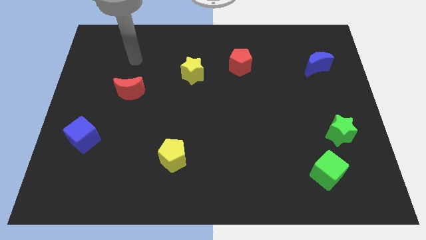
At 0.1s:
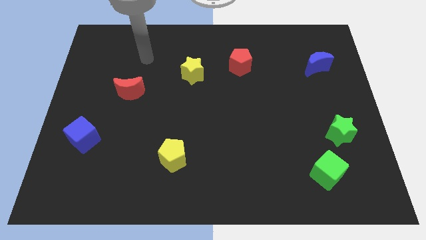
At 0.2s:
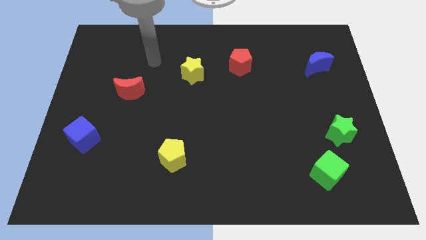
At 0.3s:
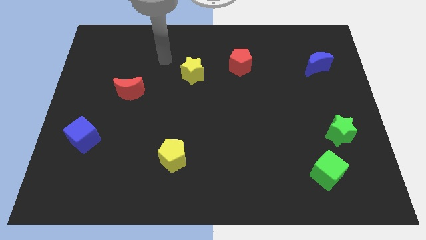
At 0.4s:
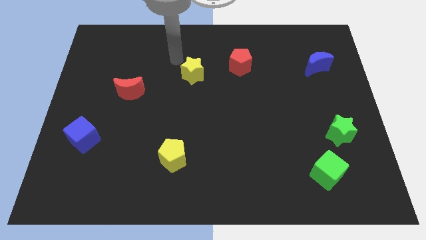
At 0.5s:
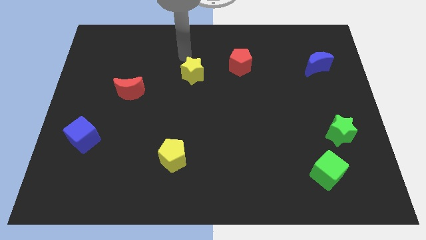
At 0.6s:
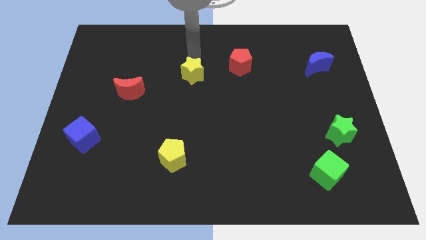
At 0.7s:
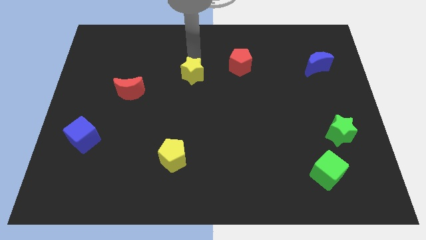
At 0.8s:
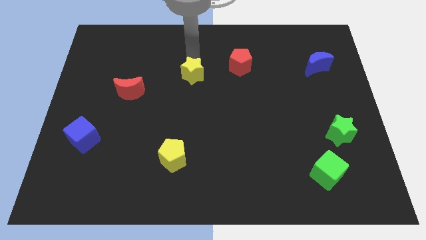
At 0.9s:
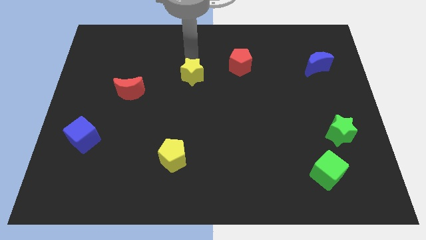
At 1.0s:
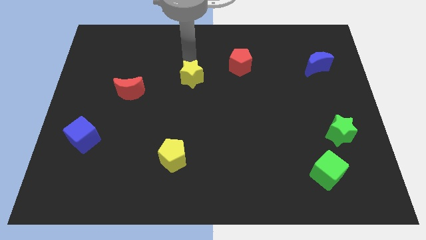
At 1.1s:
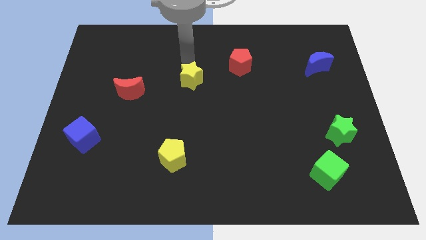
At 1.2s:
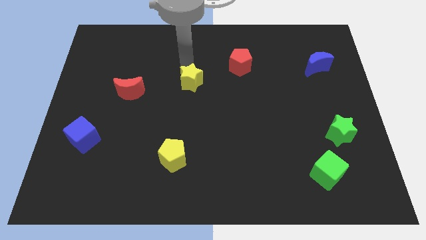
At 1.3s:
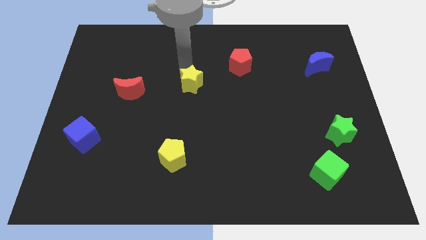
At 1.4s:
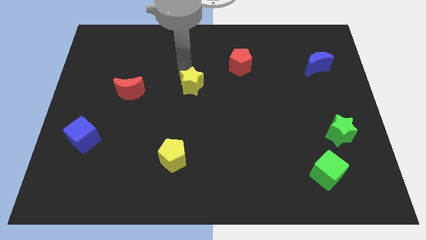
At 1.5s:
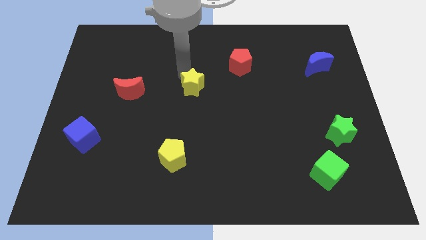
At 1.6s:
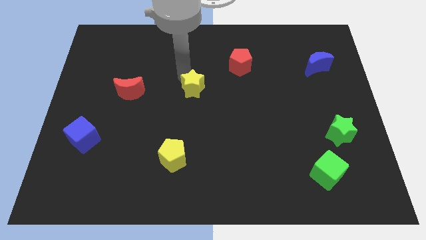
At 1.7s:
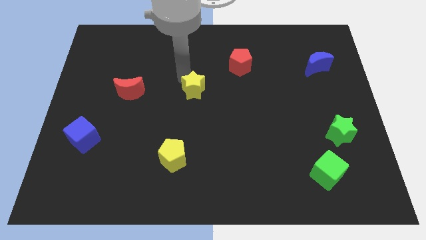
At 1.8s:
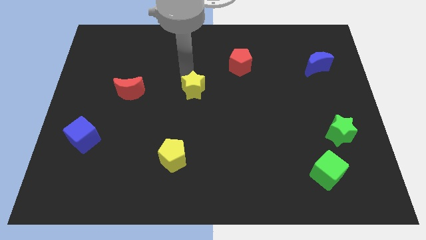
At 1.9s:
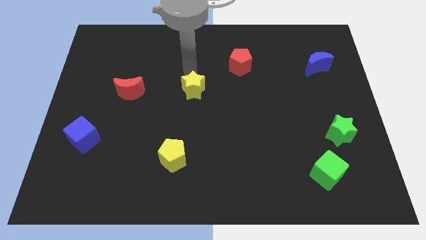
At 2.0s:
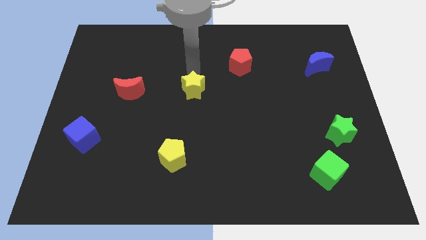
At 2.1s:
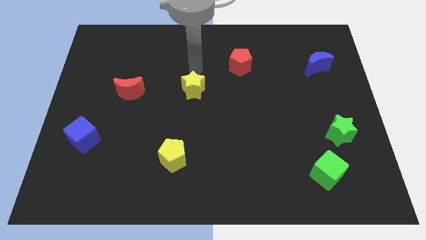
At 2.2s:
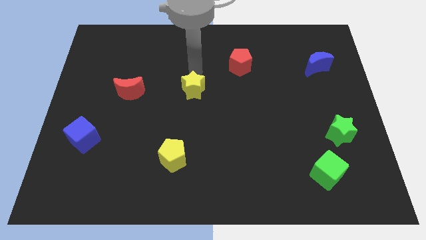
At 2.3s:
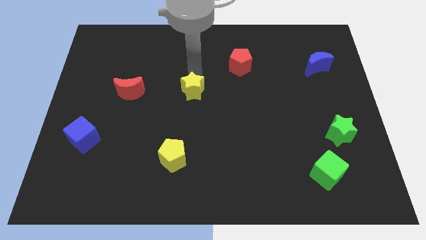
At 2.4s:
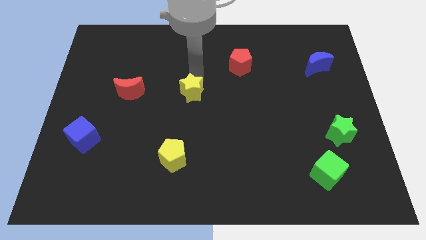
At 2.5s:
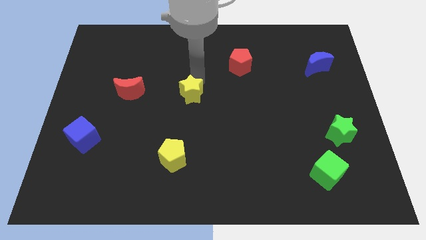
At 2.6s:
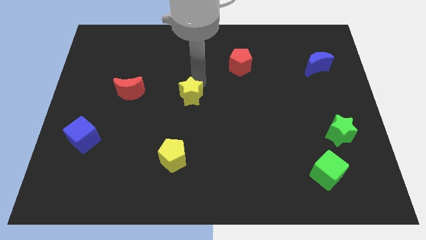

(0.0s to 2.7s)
move the yellow star downwards slightly

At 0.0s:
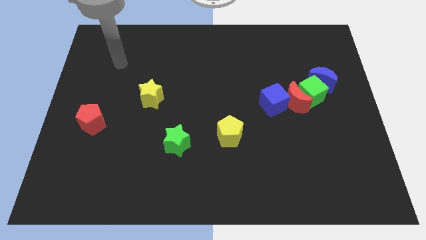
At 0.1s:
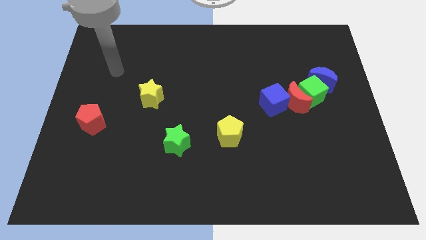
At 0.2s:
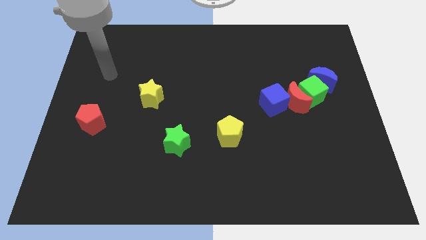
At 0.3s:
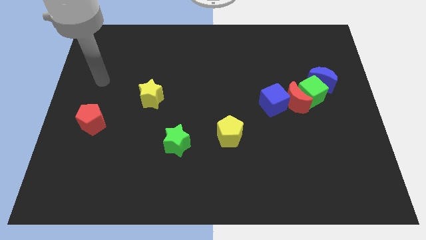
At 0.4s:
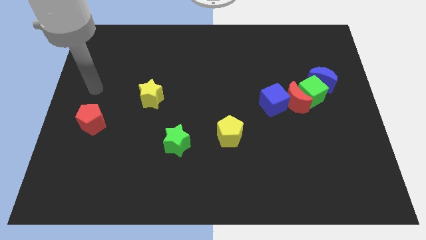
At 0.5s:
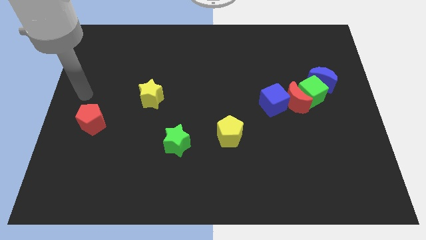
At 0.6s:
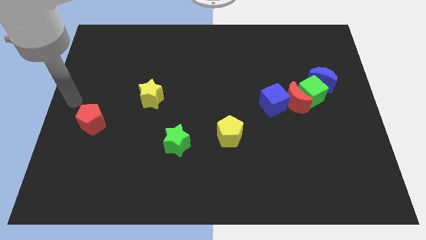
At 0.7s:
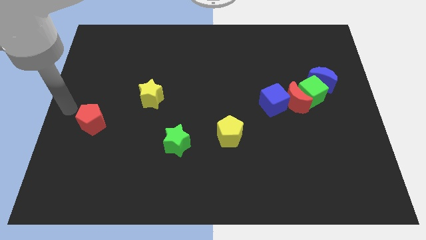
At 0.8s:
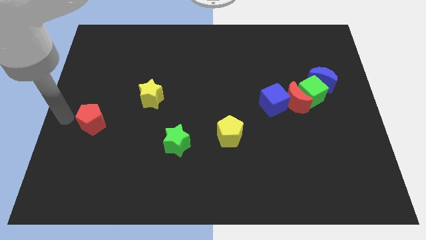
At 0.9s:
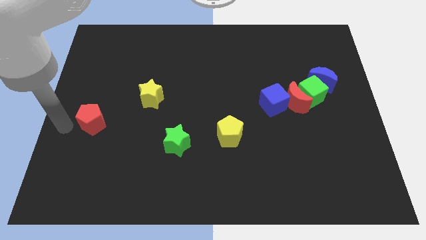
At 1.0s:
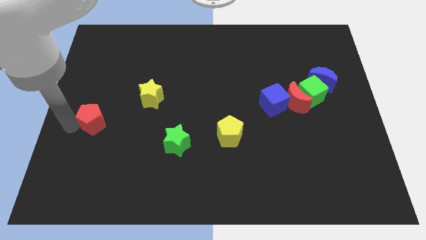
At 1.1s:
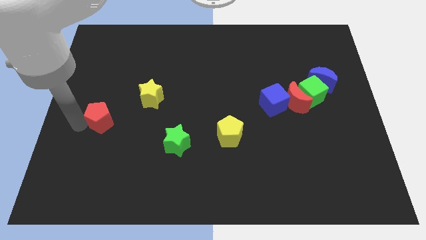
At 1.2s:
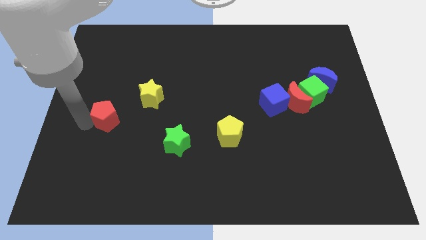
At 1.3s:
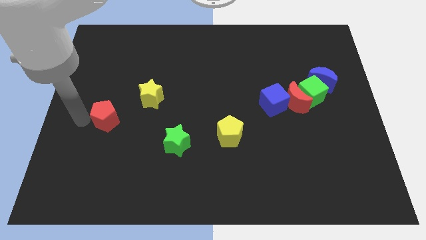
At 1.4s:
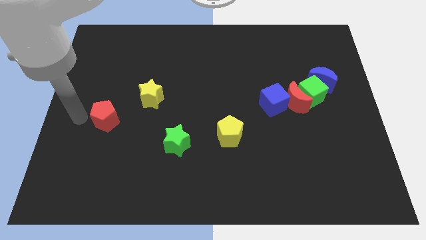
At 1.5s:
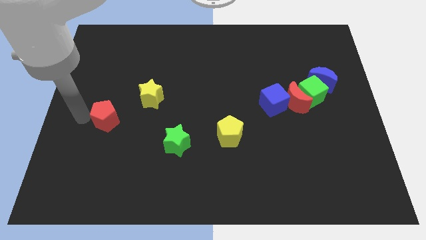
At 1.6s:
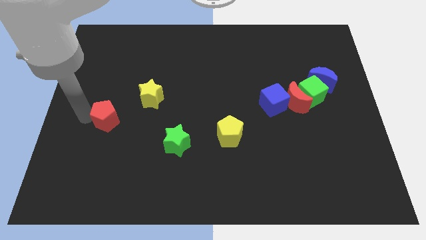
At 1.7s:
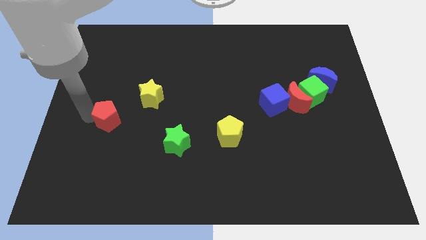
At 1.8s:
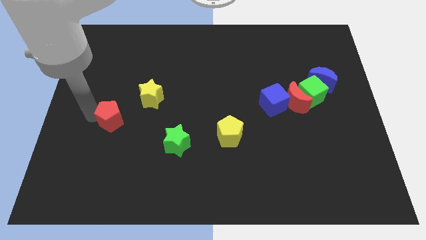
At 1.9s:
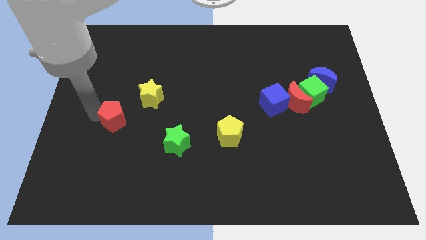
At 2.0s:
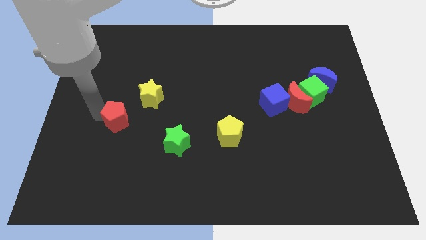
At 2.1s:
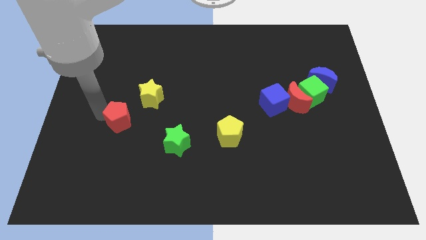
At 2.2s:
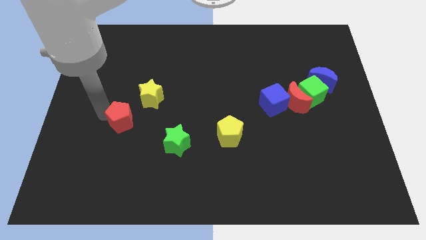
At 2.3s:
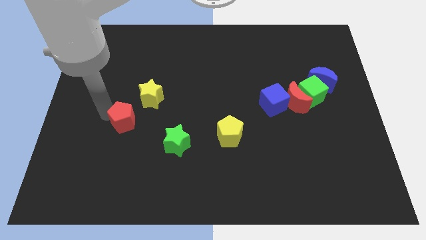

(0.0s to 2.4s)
move the red pentagon a bit right

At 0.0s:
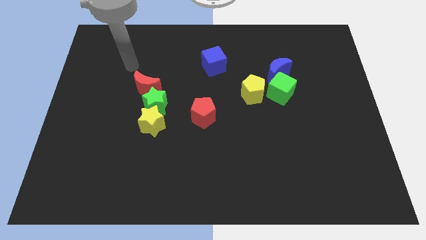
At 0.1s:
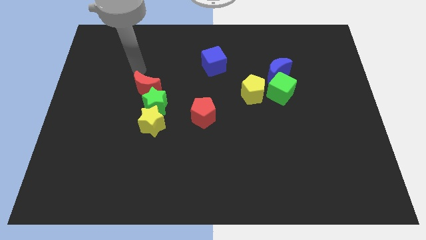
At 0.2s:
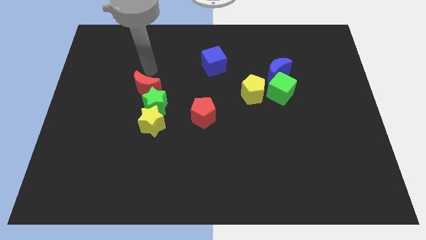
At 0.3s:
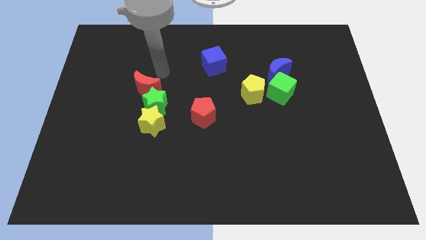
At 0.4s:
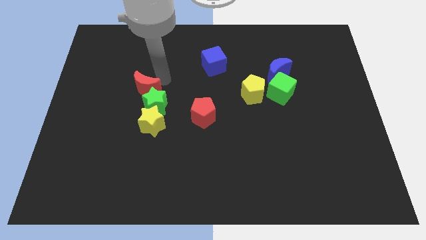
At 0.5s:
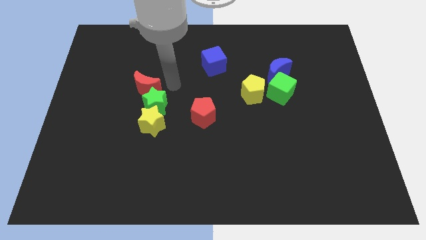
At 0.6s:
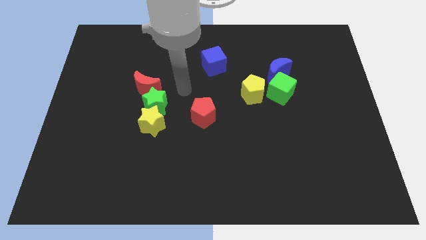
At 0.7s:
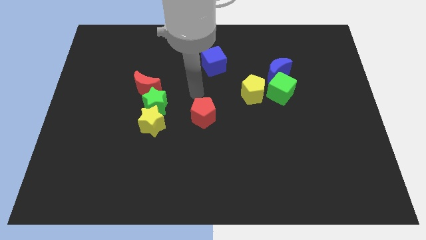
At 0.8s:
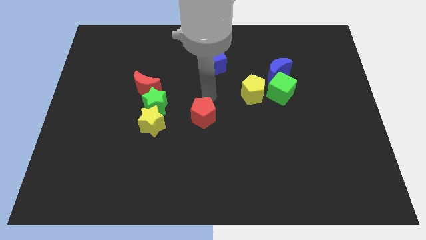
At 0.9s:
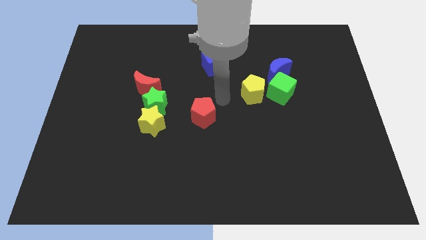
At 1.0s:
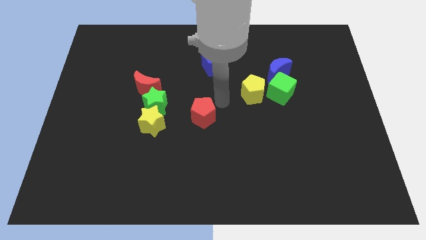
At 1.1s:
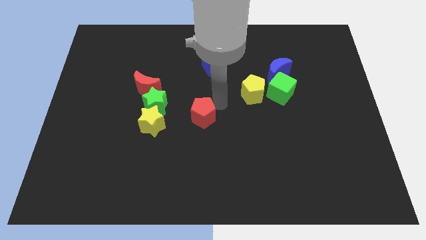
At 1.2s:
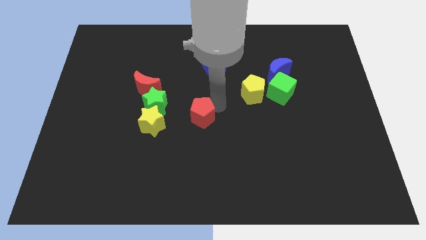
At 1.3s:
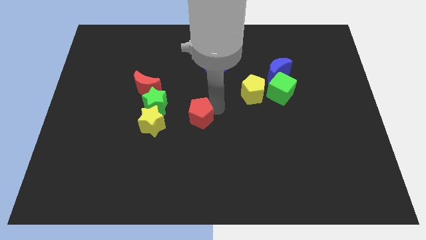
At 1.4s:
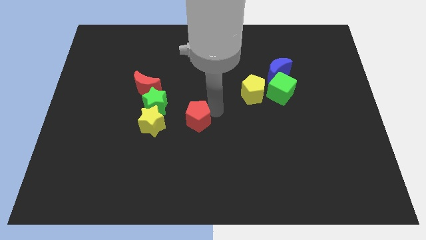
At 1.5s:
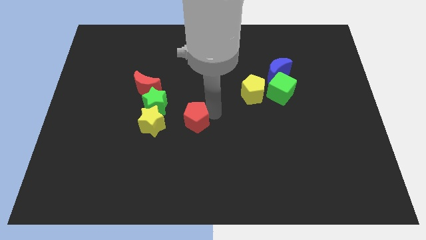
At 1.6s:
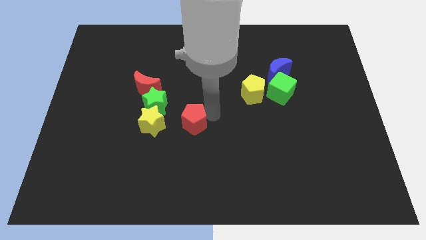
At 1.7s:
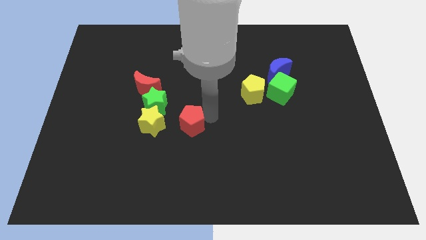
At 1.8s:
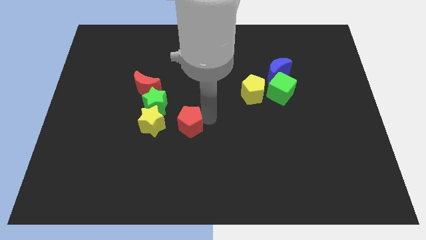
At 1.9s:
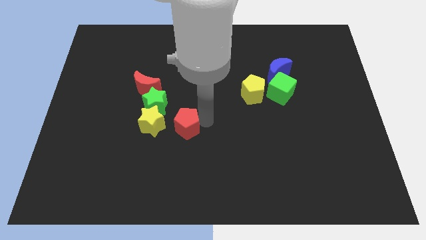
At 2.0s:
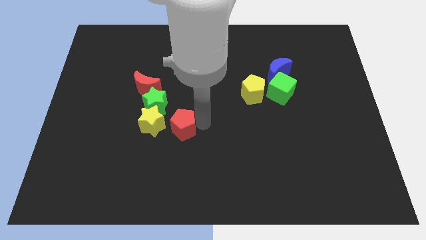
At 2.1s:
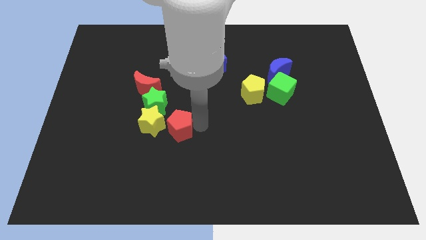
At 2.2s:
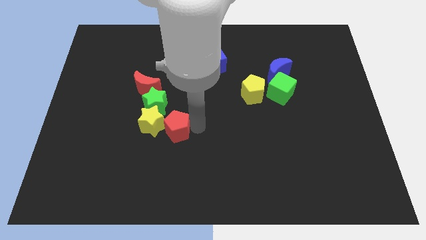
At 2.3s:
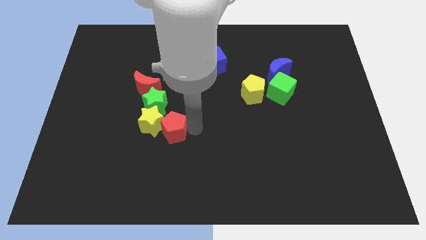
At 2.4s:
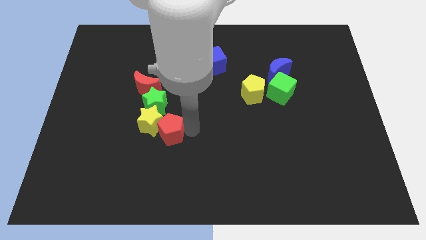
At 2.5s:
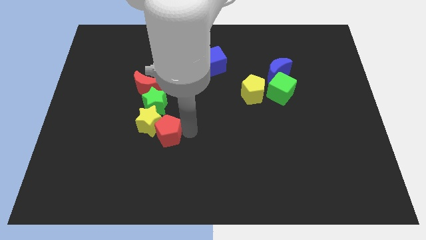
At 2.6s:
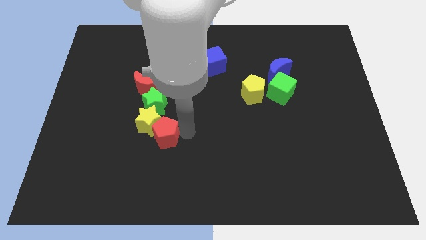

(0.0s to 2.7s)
push the red pentagon slightly to the left

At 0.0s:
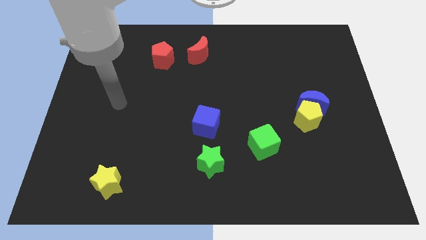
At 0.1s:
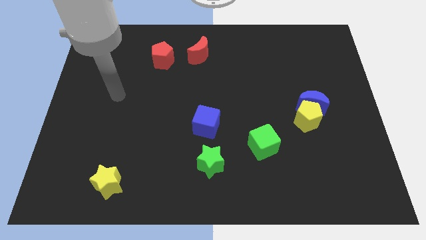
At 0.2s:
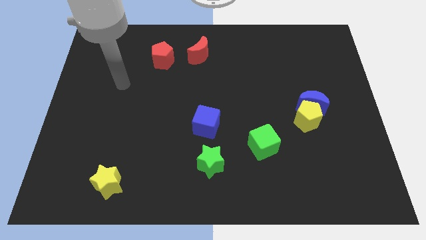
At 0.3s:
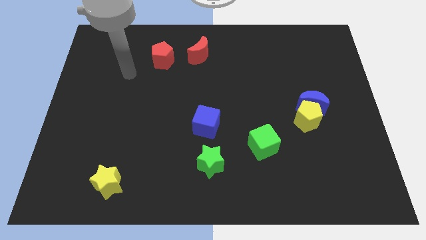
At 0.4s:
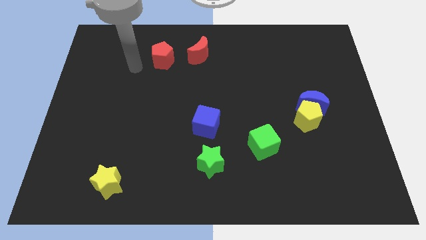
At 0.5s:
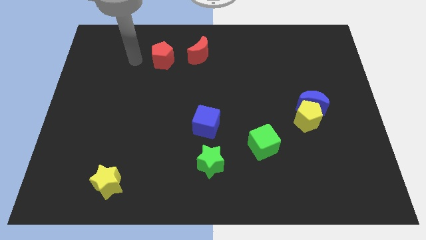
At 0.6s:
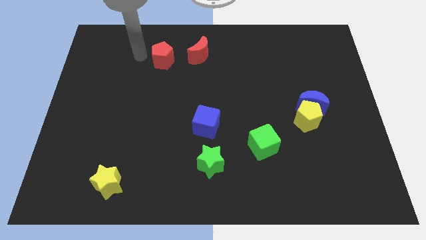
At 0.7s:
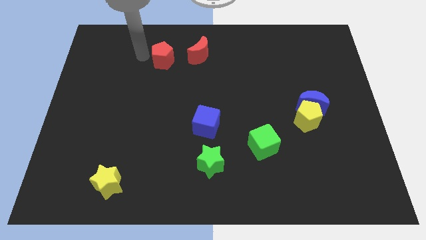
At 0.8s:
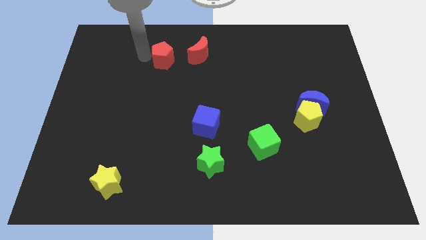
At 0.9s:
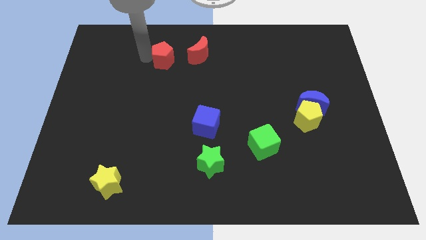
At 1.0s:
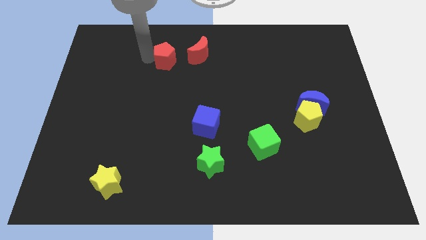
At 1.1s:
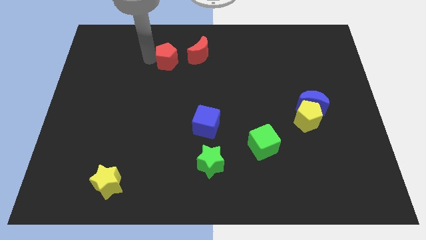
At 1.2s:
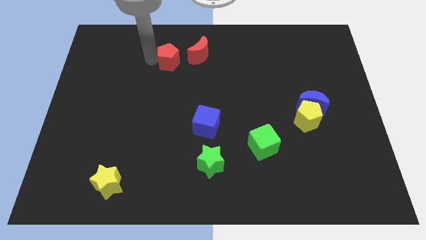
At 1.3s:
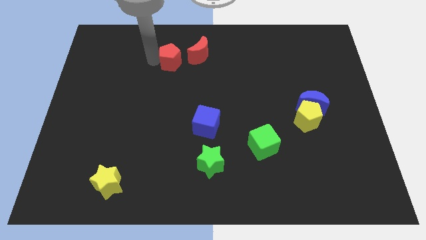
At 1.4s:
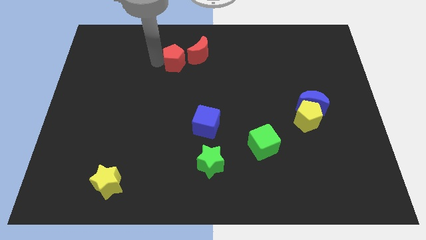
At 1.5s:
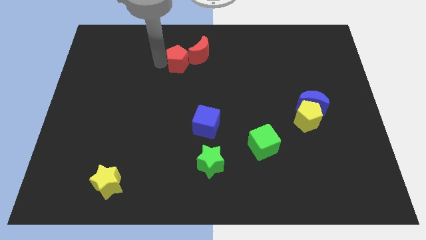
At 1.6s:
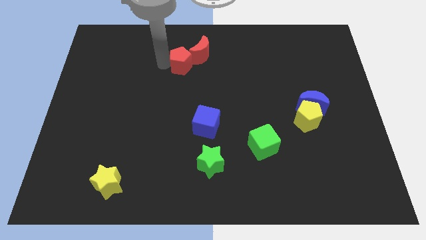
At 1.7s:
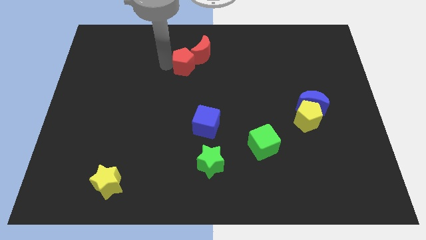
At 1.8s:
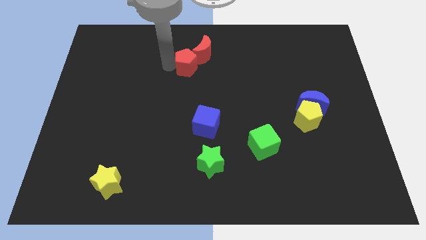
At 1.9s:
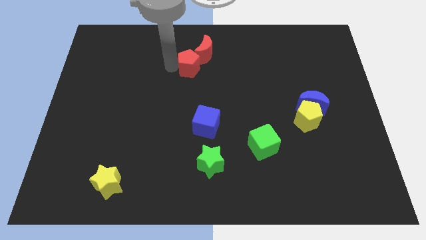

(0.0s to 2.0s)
slightly move the red pentagon right
